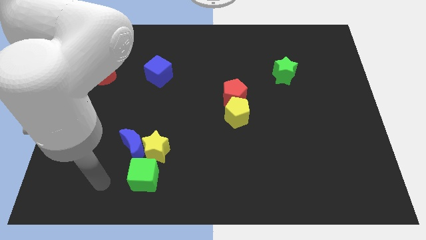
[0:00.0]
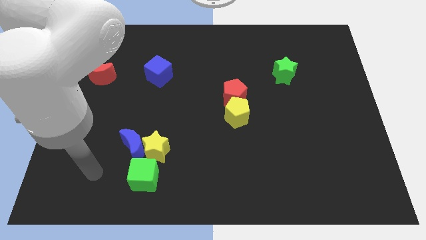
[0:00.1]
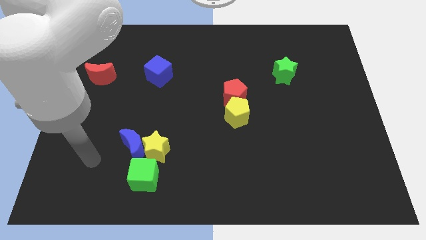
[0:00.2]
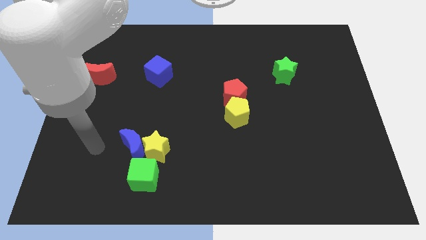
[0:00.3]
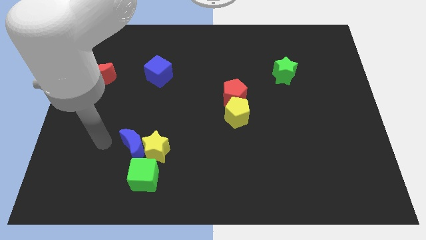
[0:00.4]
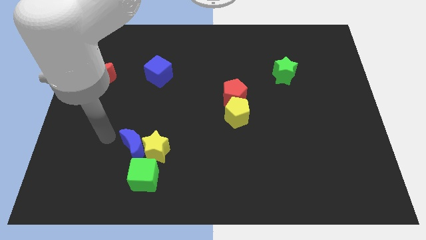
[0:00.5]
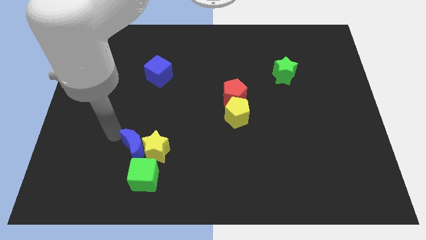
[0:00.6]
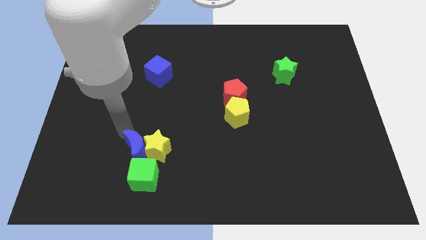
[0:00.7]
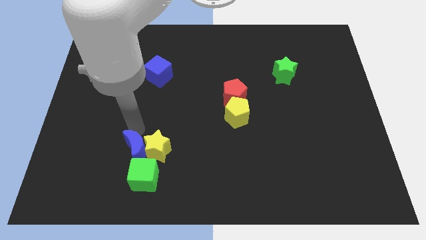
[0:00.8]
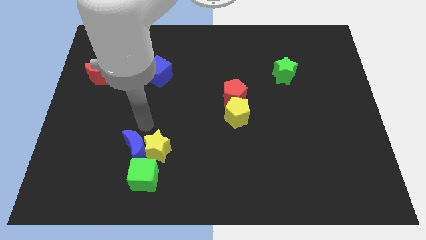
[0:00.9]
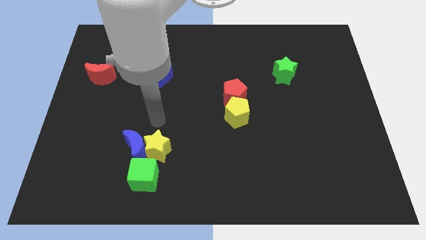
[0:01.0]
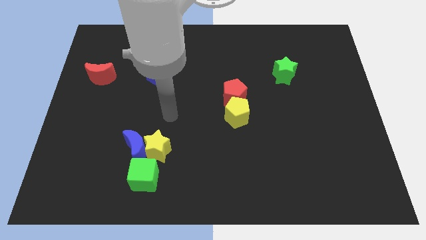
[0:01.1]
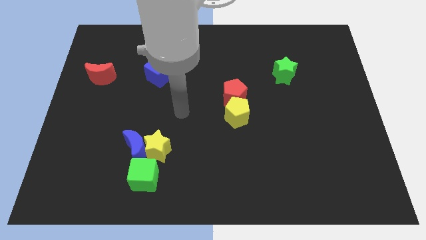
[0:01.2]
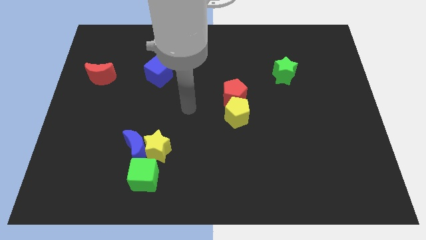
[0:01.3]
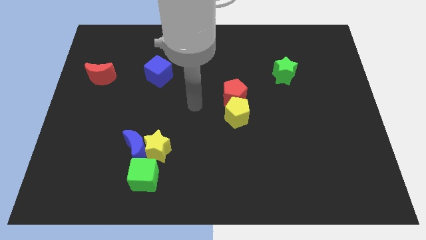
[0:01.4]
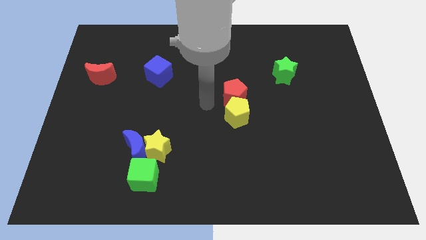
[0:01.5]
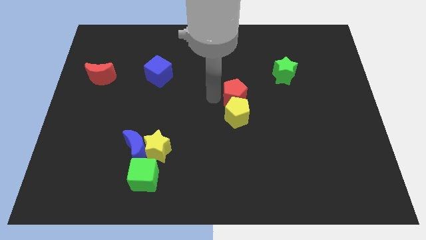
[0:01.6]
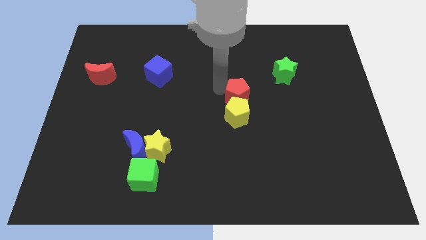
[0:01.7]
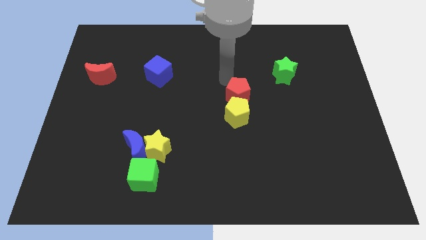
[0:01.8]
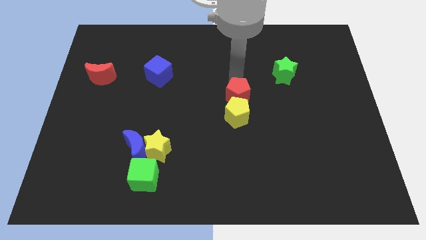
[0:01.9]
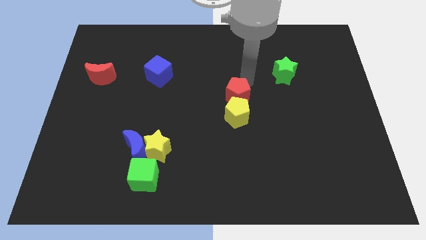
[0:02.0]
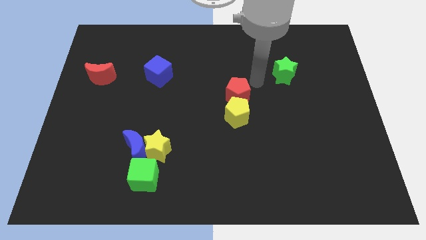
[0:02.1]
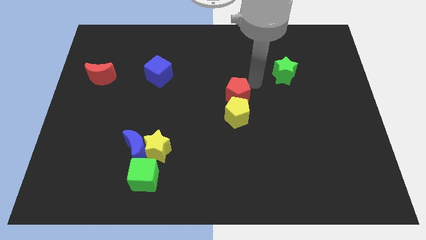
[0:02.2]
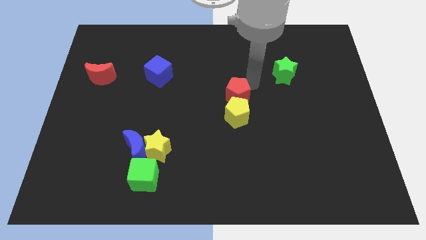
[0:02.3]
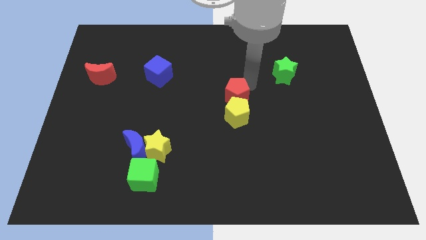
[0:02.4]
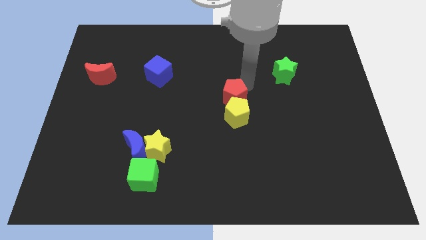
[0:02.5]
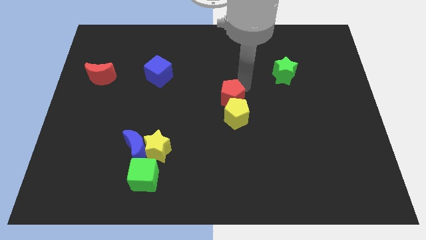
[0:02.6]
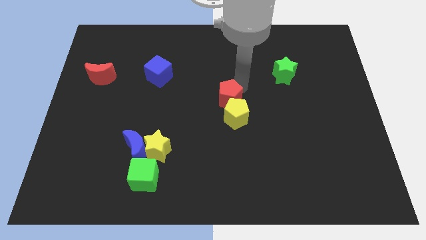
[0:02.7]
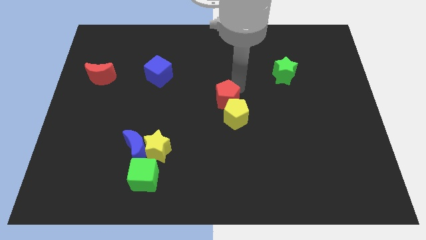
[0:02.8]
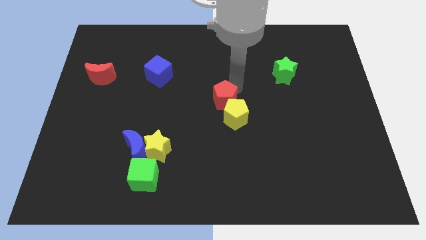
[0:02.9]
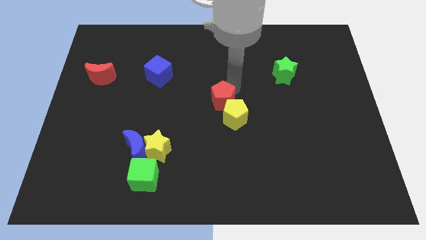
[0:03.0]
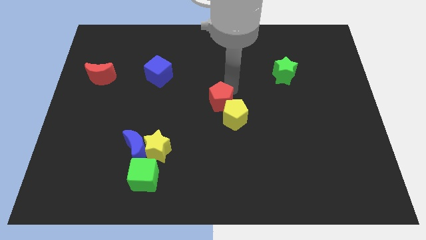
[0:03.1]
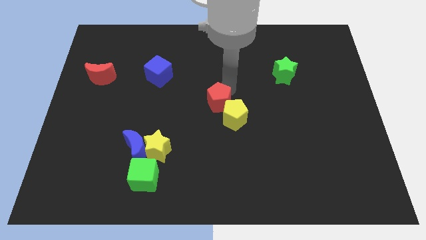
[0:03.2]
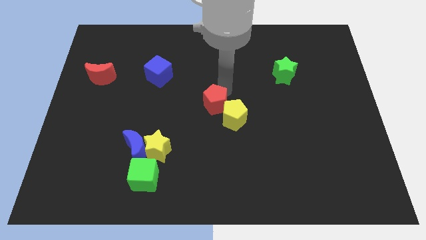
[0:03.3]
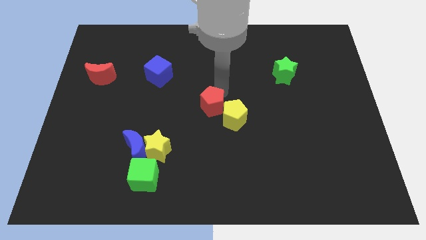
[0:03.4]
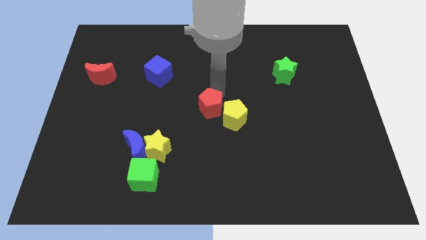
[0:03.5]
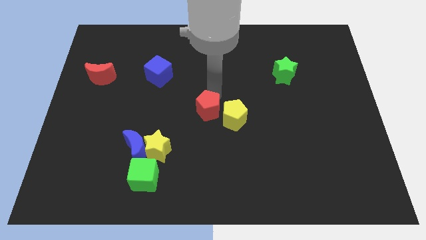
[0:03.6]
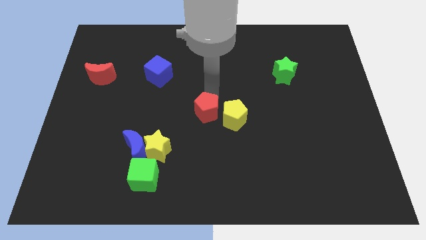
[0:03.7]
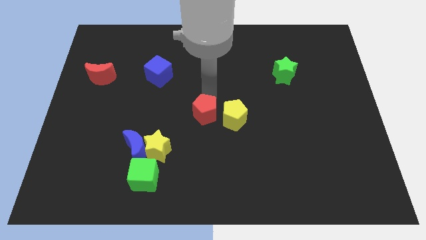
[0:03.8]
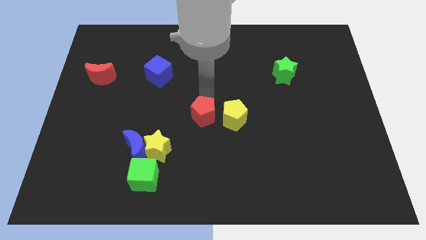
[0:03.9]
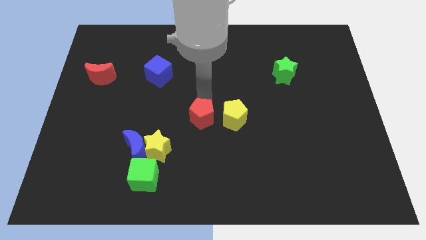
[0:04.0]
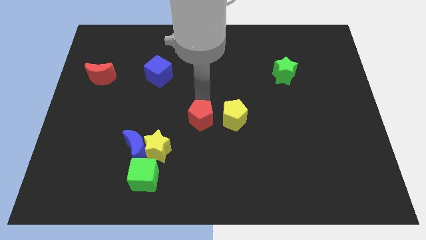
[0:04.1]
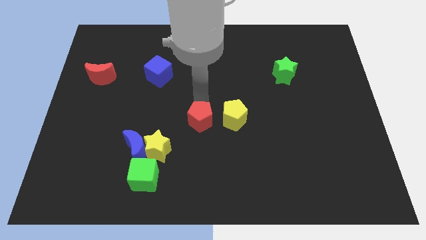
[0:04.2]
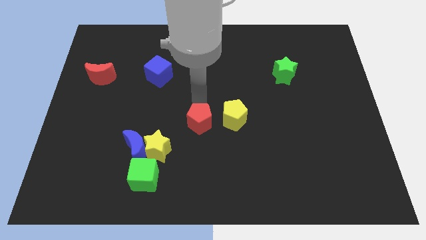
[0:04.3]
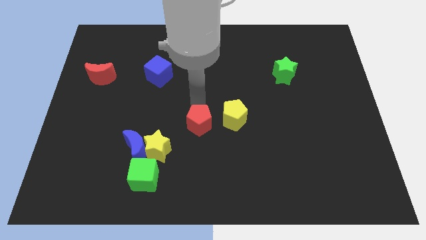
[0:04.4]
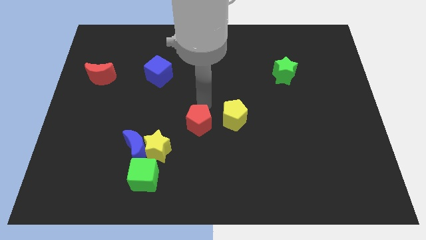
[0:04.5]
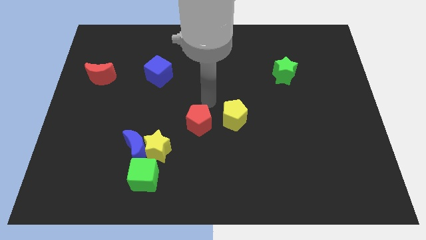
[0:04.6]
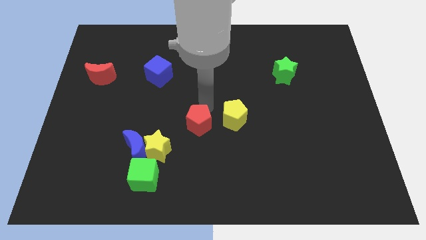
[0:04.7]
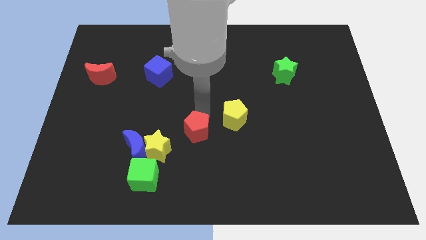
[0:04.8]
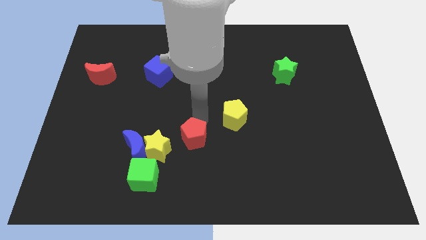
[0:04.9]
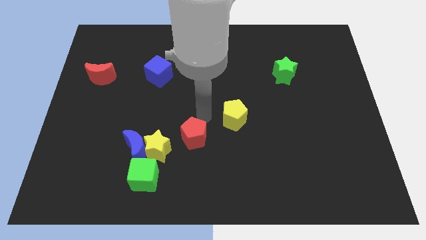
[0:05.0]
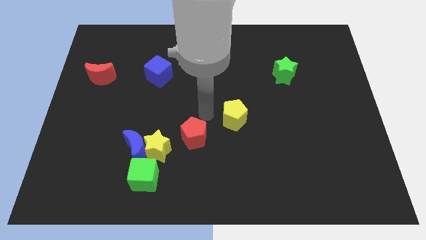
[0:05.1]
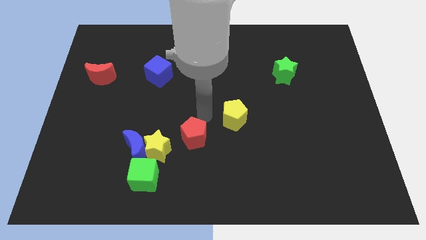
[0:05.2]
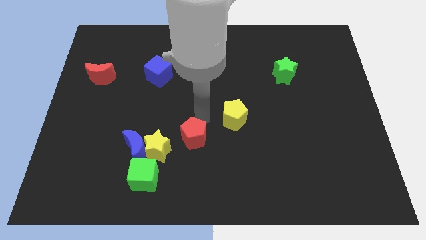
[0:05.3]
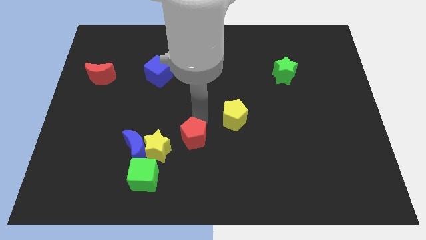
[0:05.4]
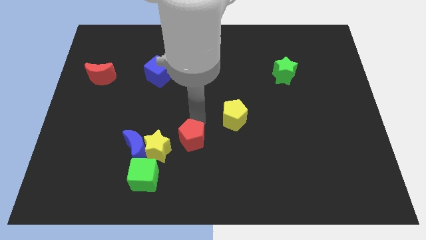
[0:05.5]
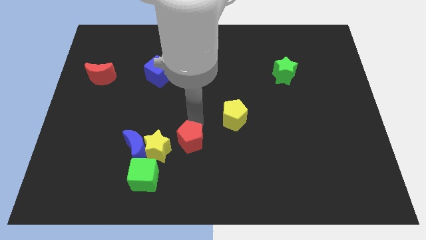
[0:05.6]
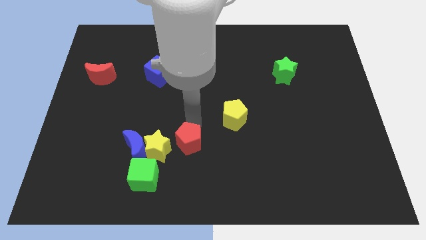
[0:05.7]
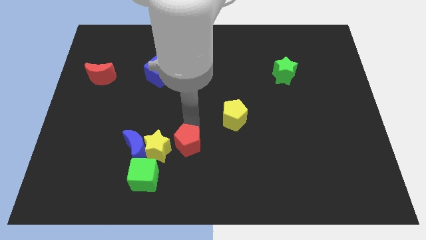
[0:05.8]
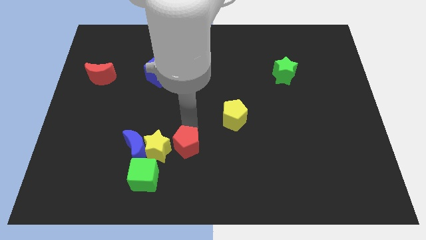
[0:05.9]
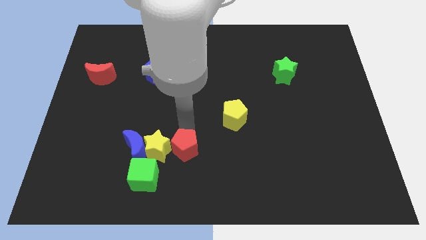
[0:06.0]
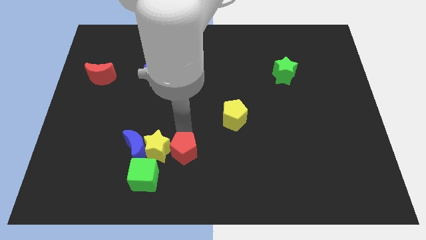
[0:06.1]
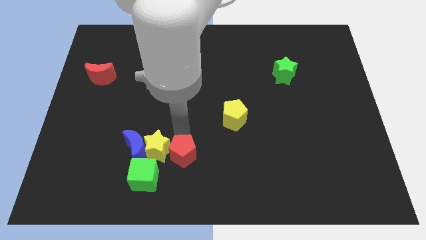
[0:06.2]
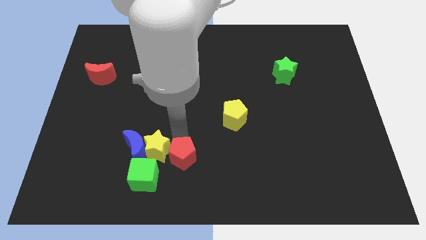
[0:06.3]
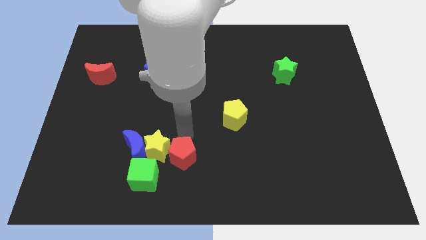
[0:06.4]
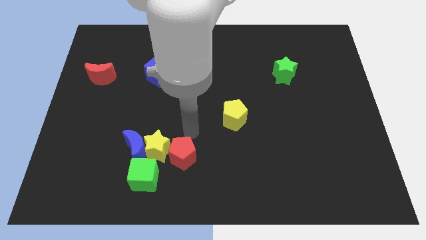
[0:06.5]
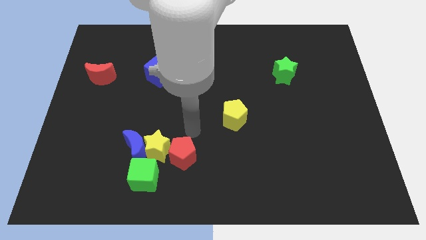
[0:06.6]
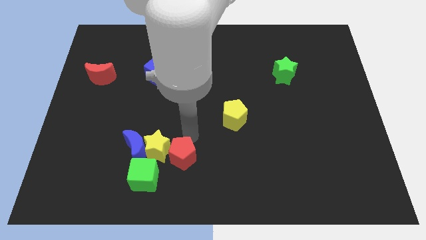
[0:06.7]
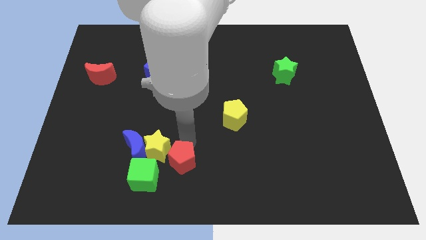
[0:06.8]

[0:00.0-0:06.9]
push the red pentagon down and to the left

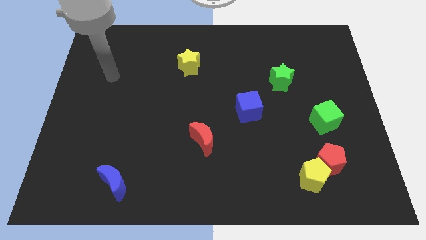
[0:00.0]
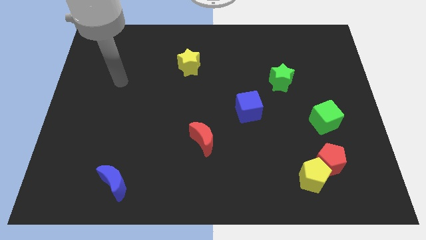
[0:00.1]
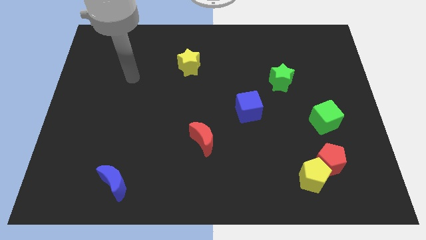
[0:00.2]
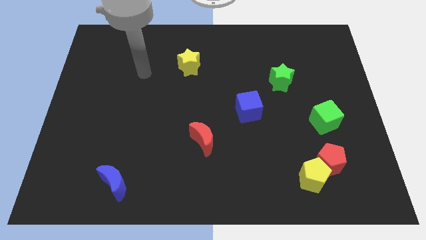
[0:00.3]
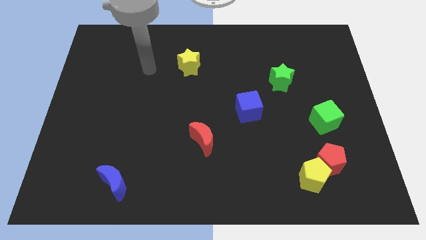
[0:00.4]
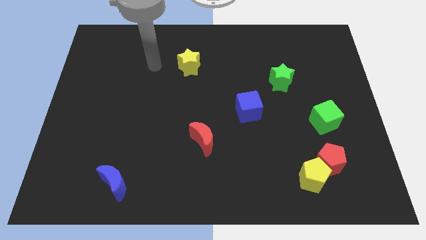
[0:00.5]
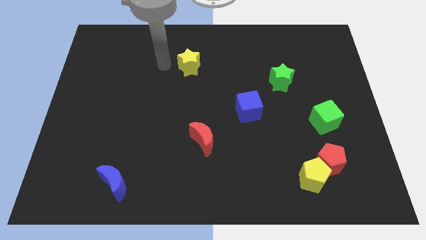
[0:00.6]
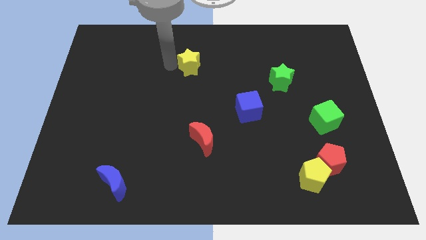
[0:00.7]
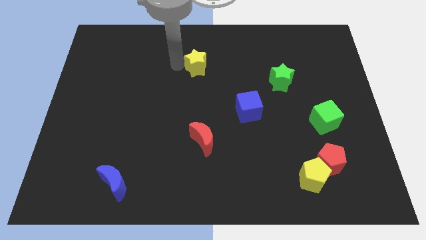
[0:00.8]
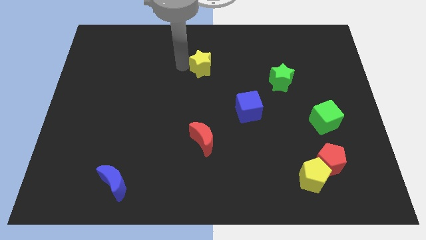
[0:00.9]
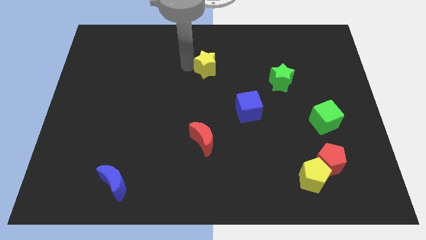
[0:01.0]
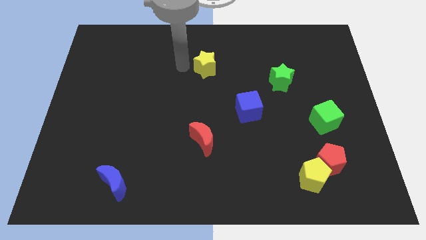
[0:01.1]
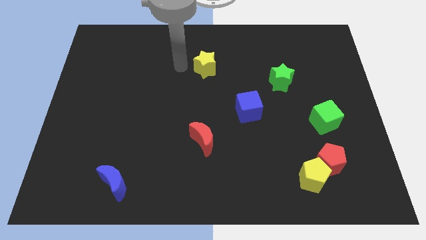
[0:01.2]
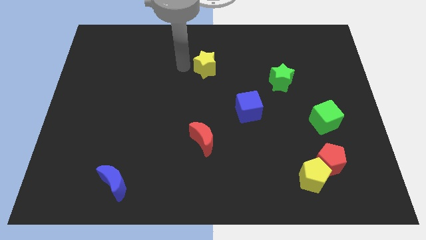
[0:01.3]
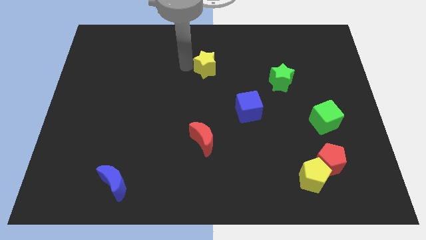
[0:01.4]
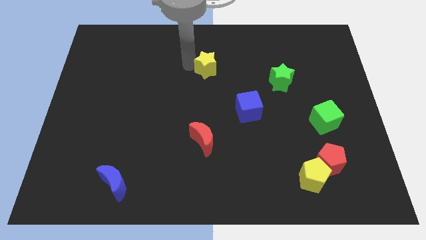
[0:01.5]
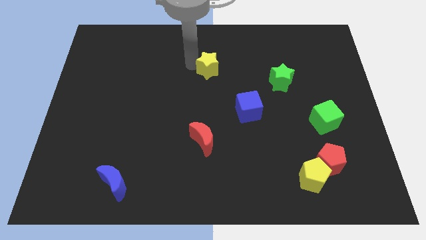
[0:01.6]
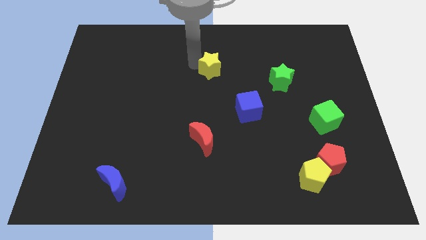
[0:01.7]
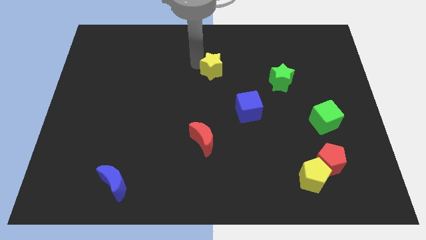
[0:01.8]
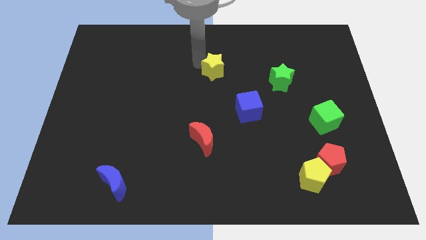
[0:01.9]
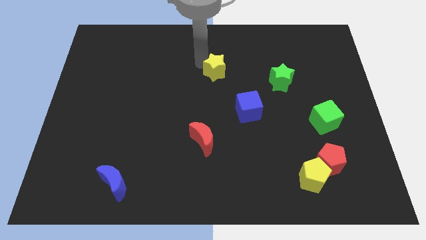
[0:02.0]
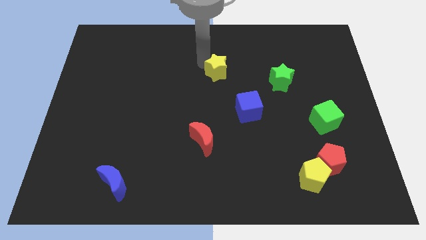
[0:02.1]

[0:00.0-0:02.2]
move the yellow star right slightly
